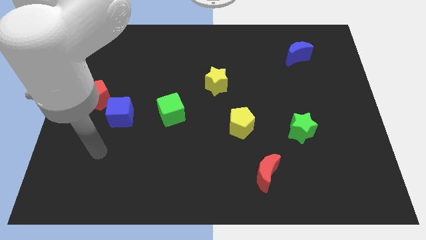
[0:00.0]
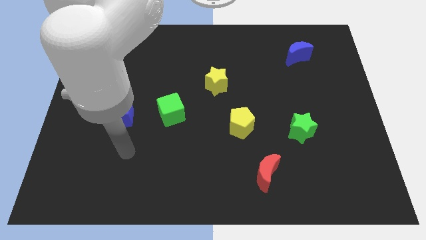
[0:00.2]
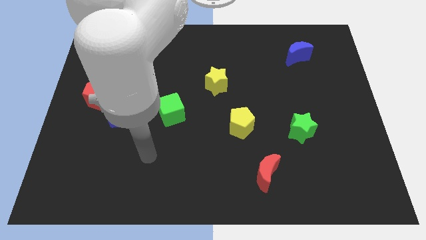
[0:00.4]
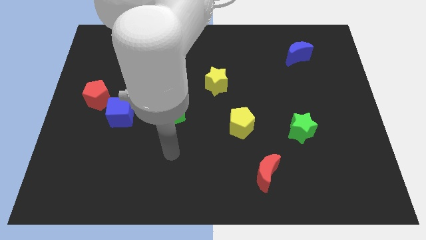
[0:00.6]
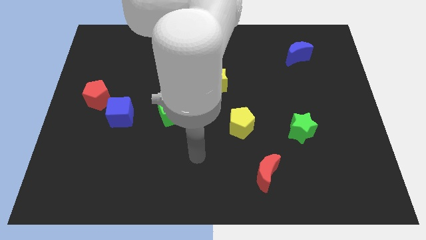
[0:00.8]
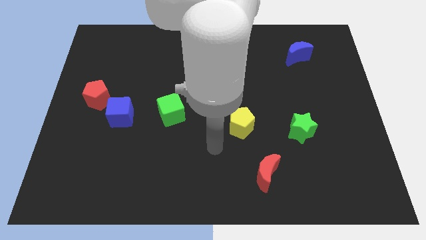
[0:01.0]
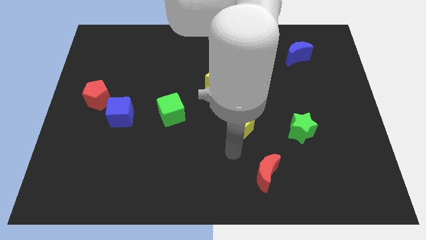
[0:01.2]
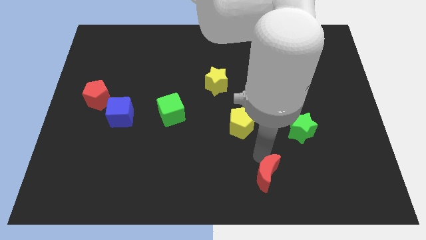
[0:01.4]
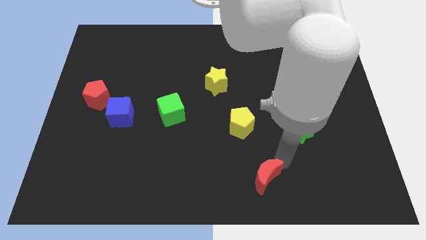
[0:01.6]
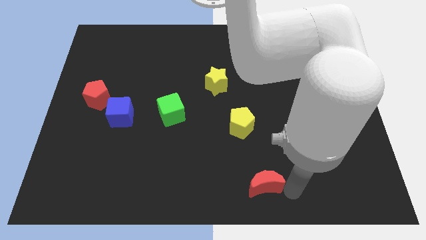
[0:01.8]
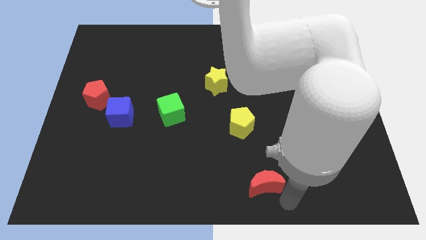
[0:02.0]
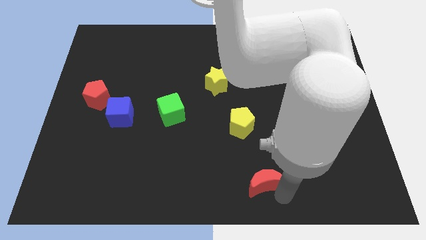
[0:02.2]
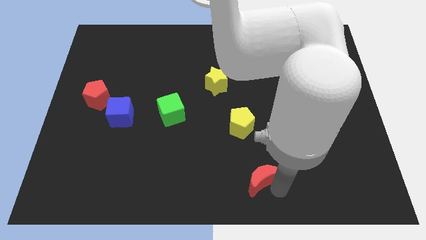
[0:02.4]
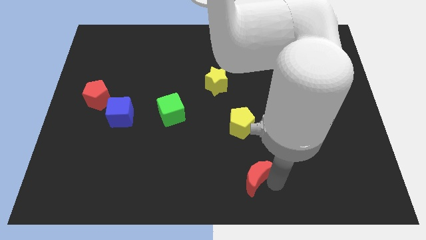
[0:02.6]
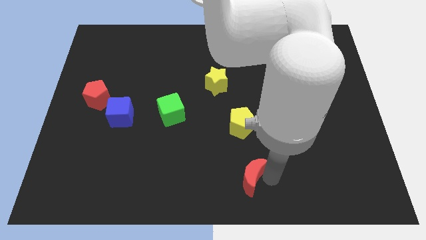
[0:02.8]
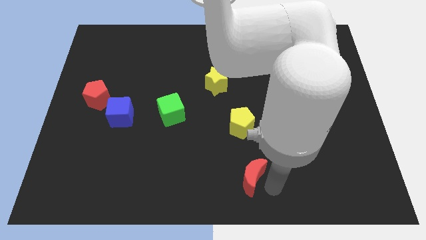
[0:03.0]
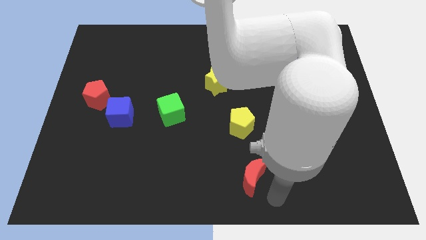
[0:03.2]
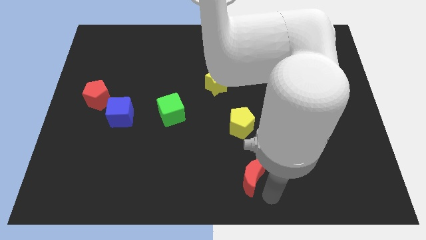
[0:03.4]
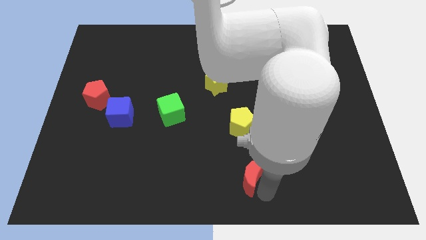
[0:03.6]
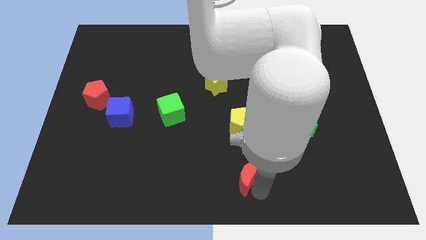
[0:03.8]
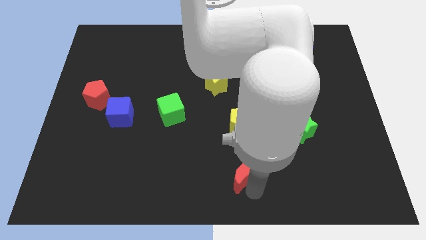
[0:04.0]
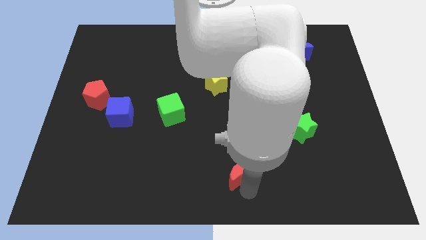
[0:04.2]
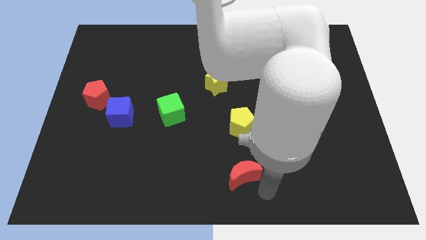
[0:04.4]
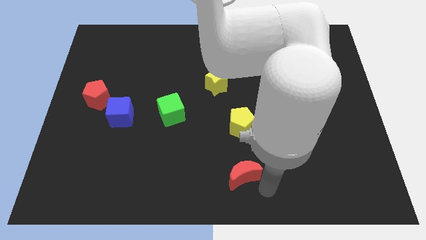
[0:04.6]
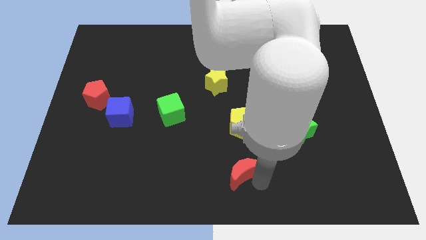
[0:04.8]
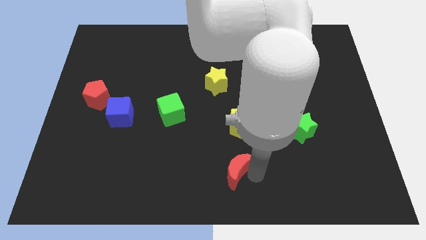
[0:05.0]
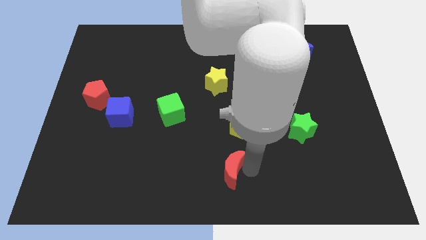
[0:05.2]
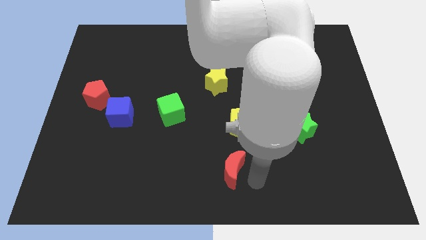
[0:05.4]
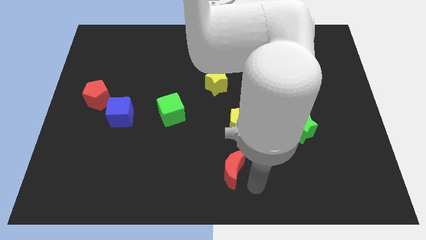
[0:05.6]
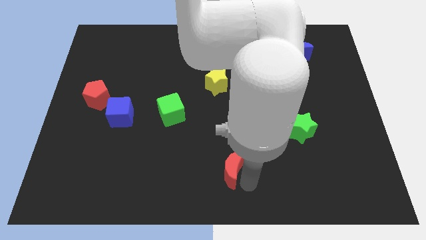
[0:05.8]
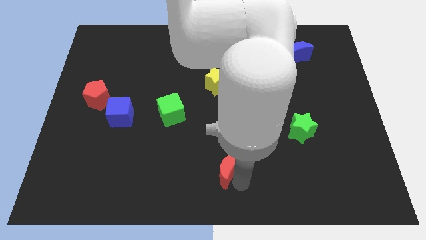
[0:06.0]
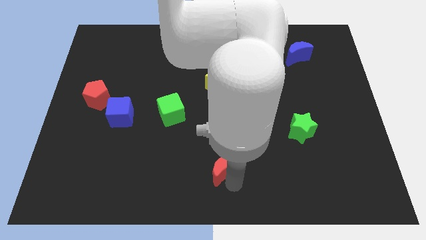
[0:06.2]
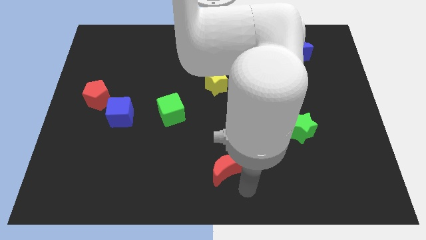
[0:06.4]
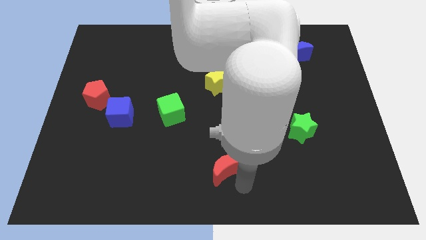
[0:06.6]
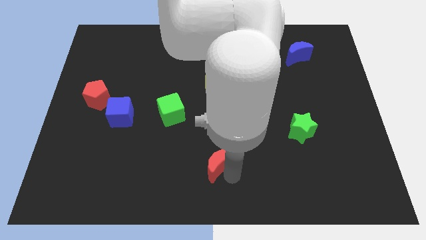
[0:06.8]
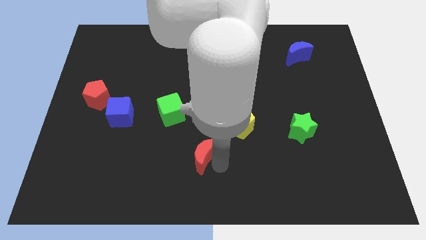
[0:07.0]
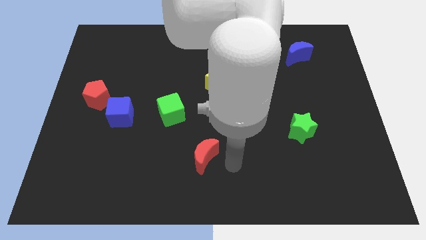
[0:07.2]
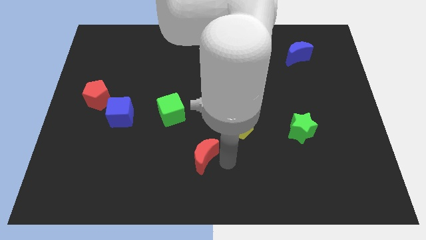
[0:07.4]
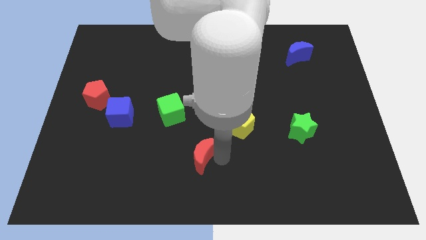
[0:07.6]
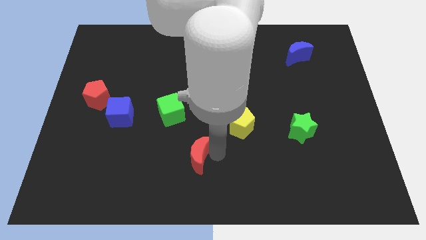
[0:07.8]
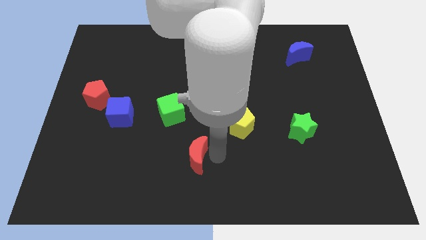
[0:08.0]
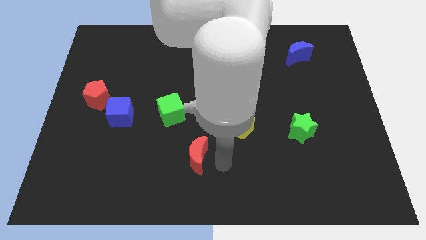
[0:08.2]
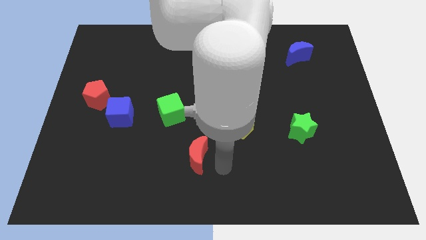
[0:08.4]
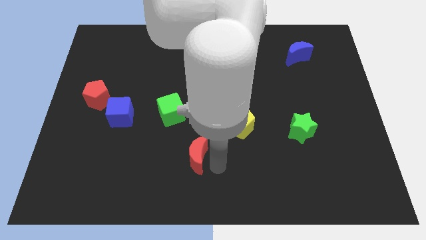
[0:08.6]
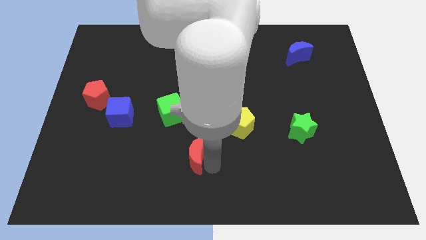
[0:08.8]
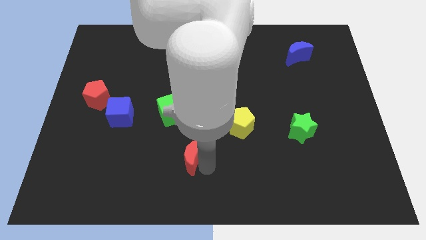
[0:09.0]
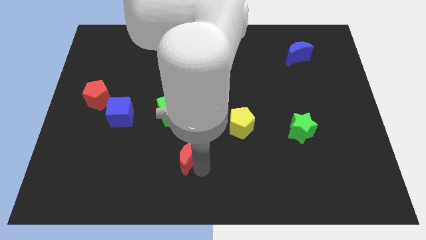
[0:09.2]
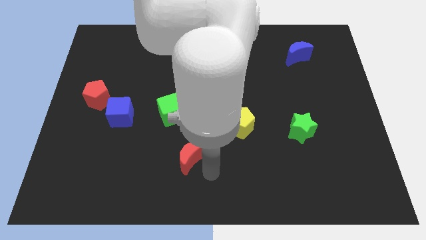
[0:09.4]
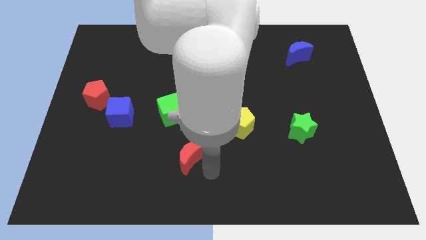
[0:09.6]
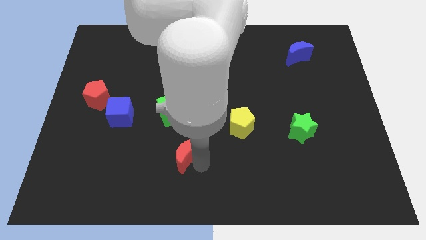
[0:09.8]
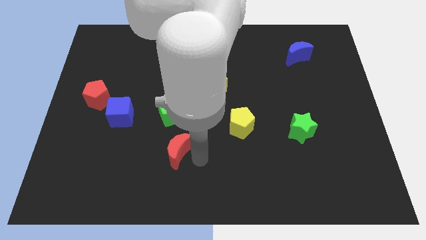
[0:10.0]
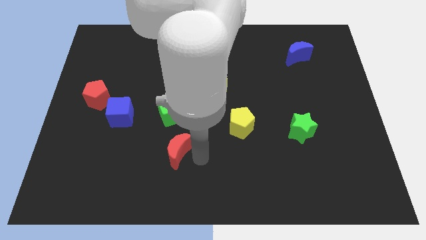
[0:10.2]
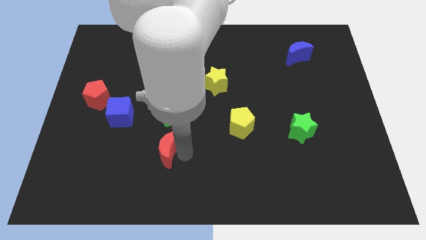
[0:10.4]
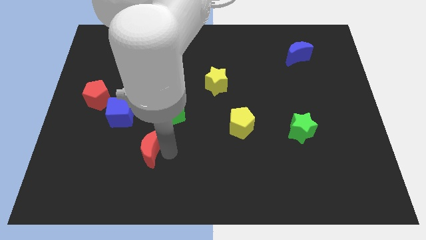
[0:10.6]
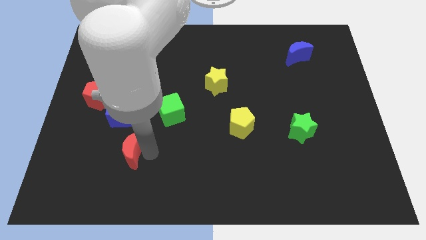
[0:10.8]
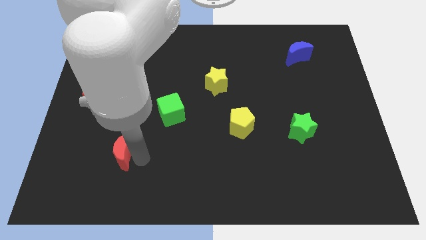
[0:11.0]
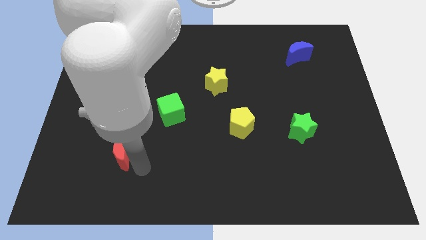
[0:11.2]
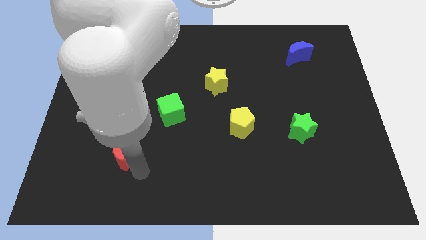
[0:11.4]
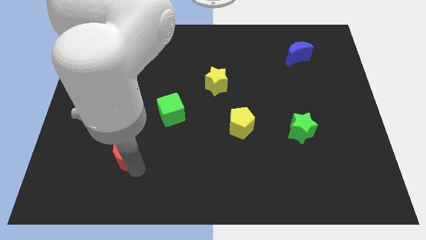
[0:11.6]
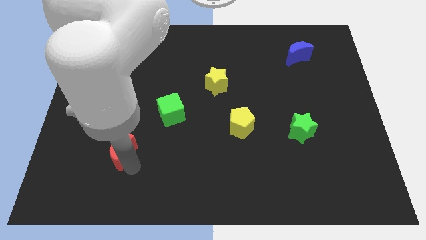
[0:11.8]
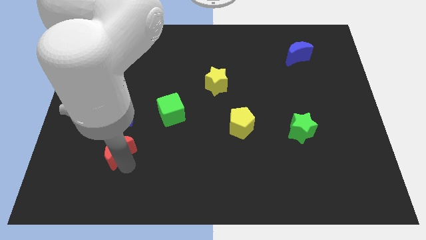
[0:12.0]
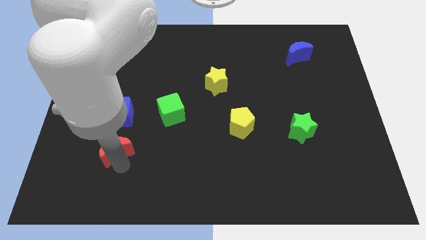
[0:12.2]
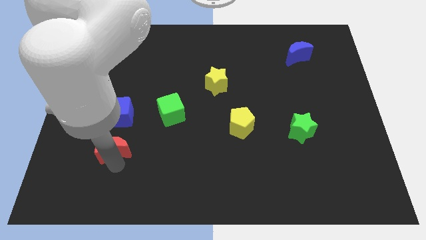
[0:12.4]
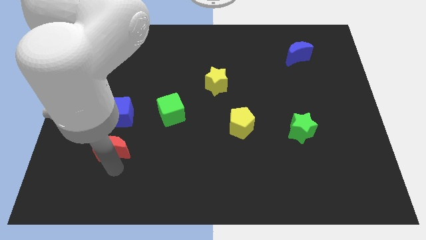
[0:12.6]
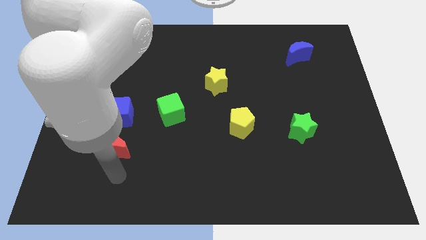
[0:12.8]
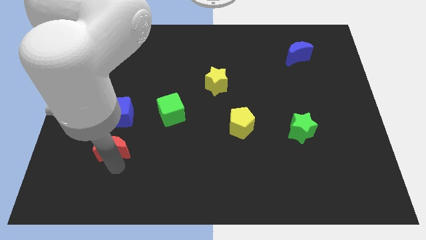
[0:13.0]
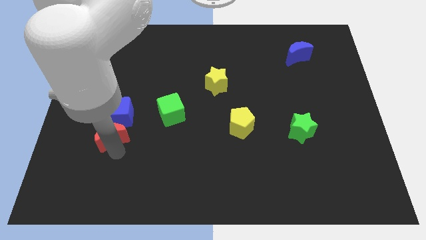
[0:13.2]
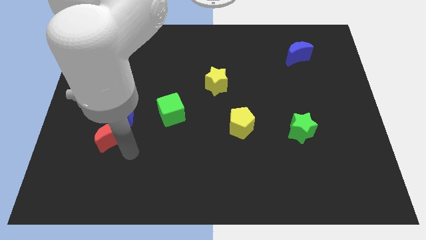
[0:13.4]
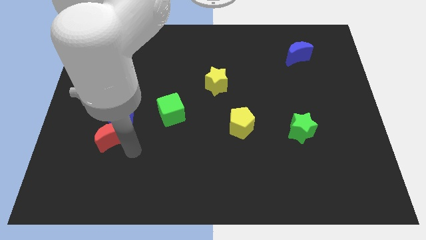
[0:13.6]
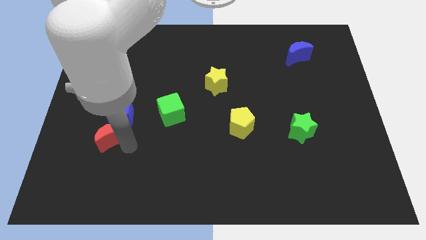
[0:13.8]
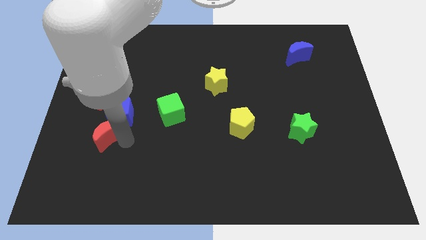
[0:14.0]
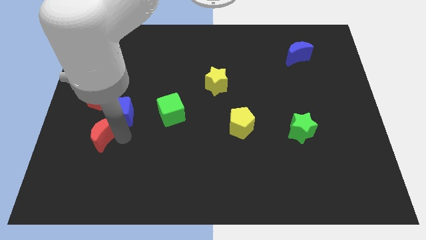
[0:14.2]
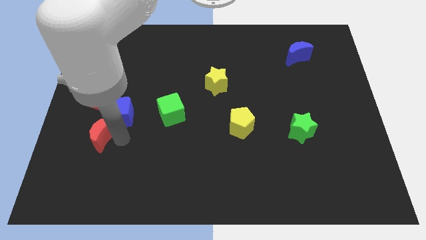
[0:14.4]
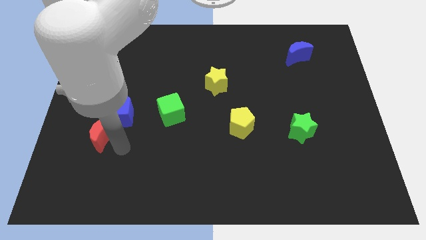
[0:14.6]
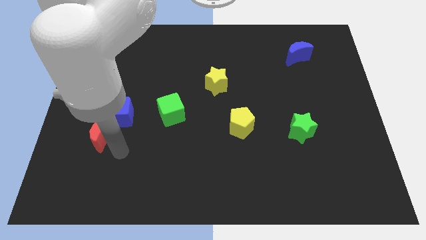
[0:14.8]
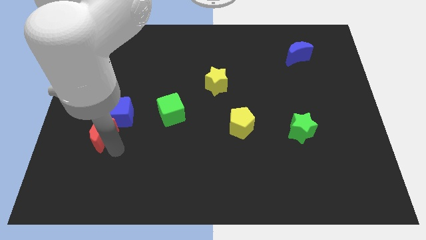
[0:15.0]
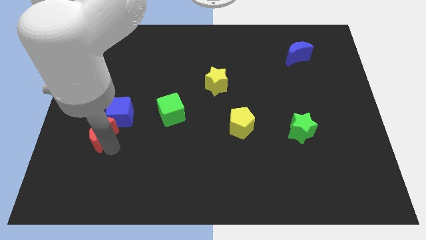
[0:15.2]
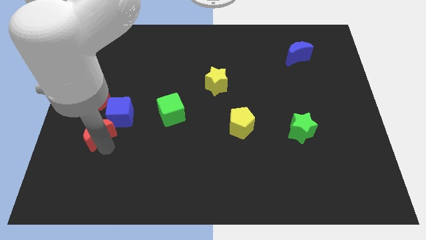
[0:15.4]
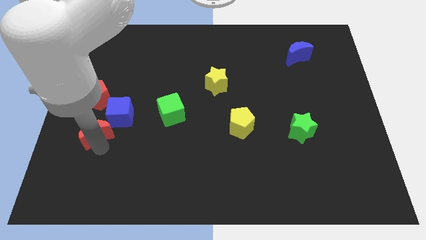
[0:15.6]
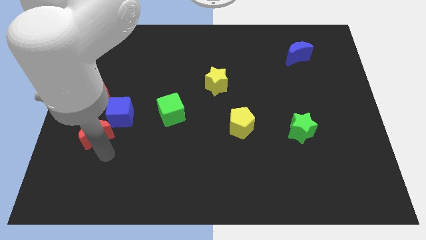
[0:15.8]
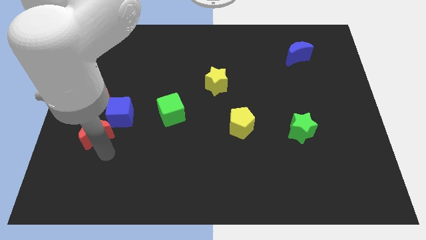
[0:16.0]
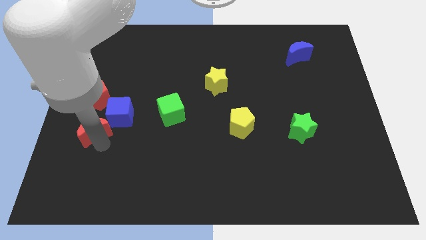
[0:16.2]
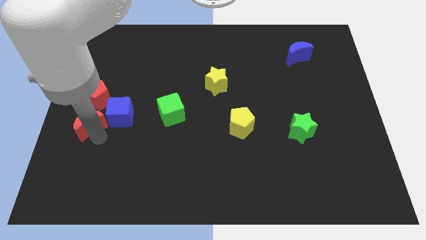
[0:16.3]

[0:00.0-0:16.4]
slide the red moon to the center left
